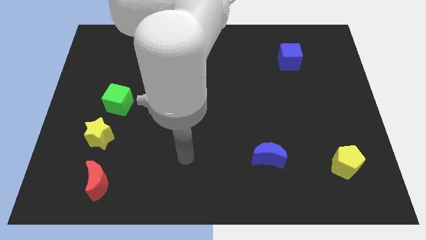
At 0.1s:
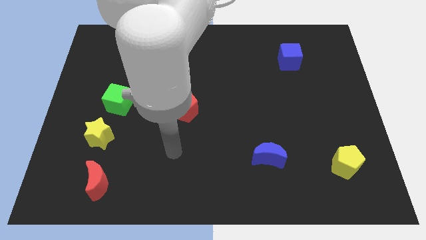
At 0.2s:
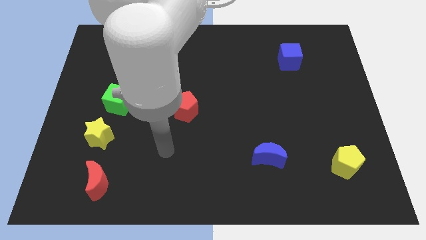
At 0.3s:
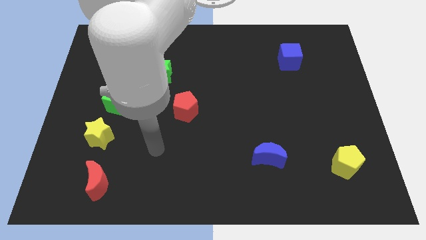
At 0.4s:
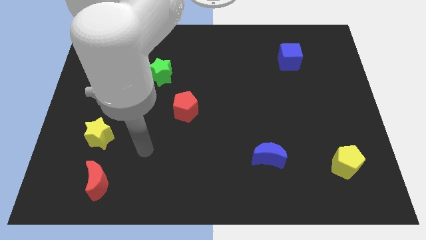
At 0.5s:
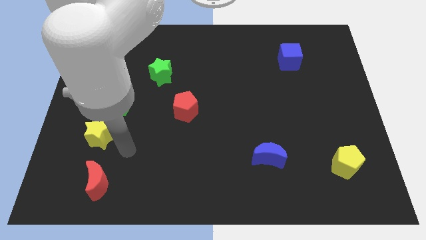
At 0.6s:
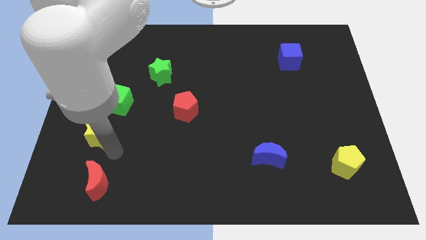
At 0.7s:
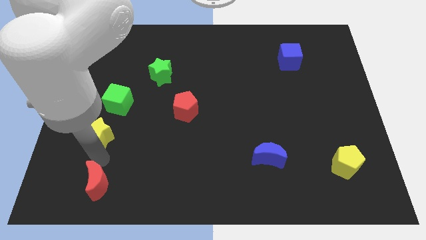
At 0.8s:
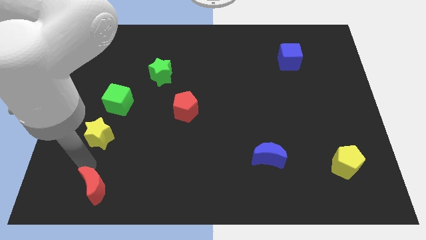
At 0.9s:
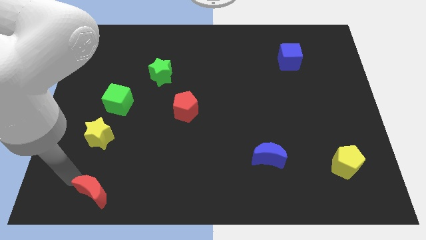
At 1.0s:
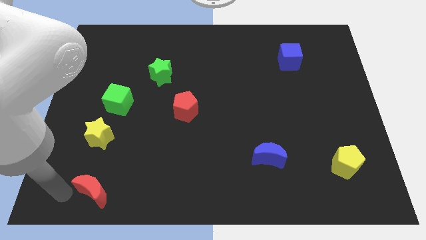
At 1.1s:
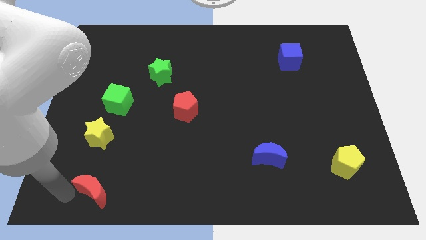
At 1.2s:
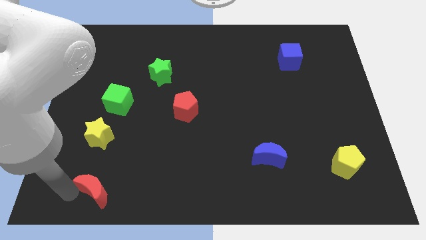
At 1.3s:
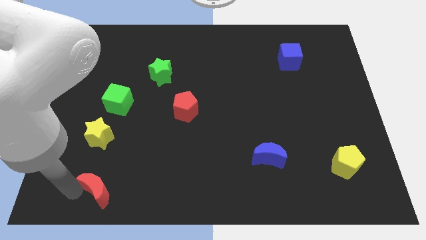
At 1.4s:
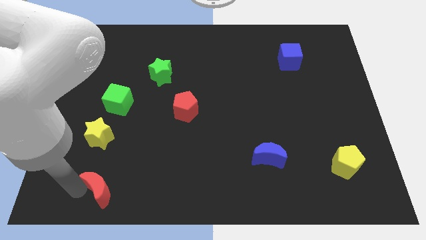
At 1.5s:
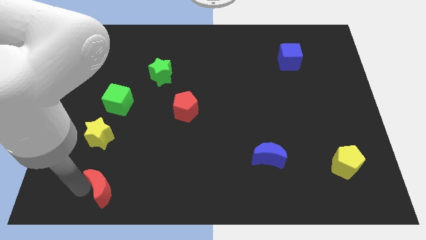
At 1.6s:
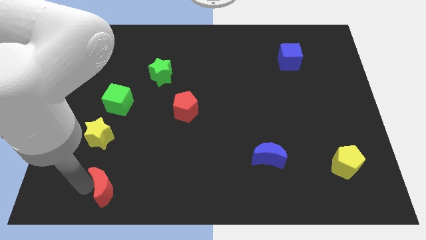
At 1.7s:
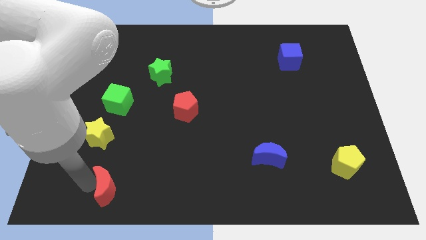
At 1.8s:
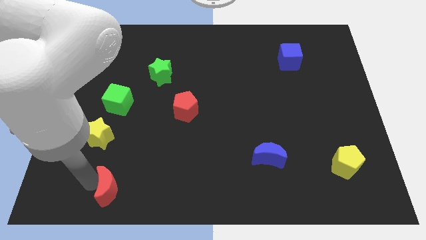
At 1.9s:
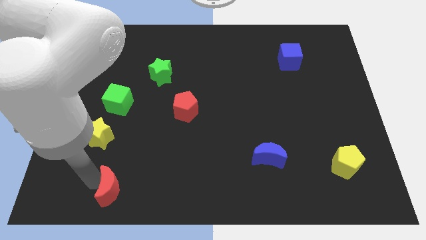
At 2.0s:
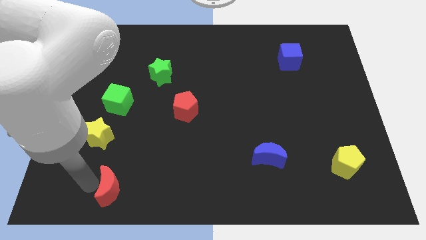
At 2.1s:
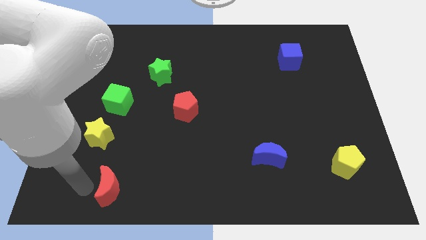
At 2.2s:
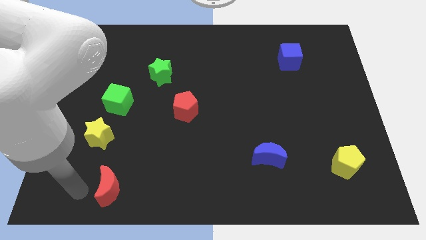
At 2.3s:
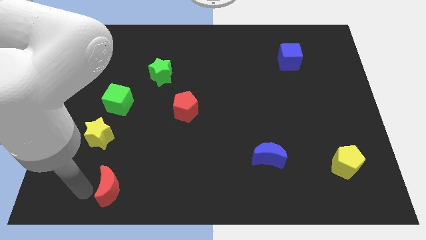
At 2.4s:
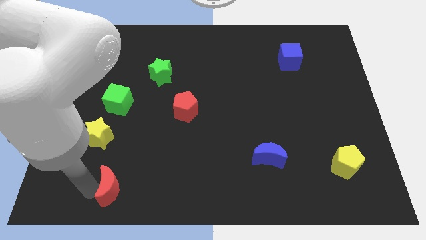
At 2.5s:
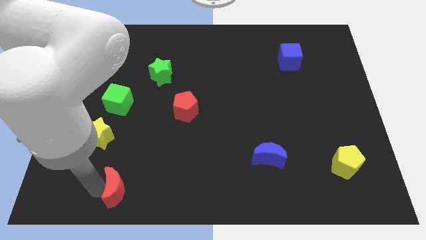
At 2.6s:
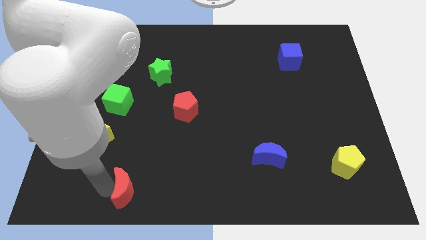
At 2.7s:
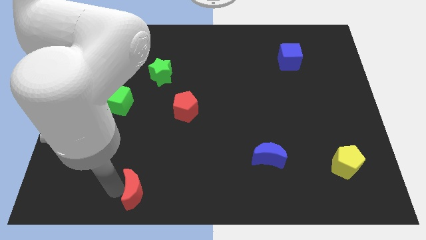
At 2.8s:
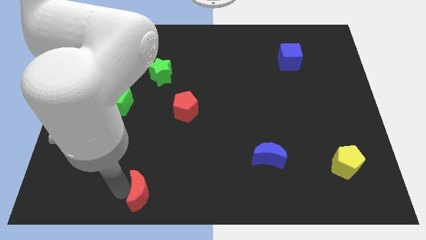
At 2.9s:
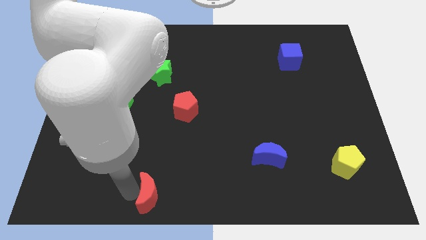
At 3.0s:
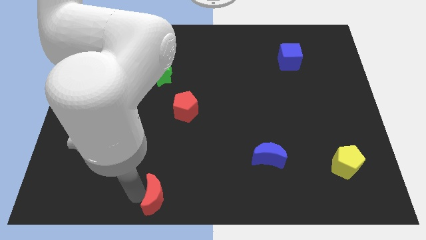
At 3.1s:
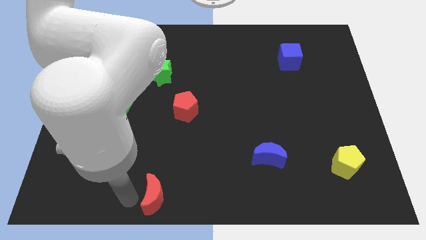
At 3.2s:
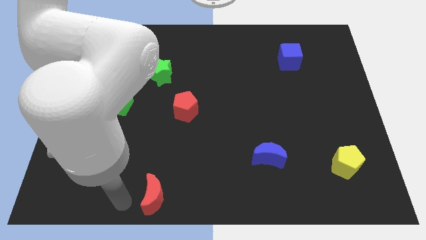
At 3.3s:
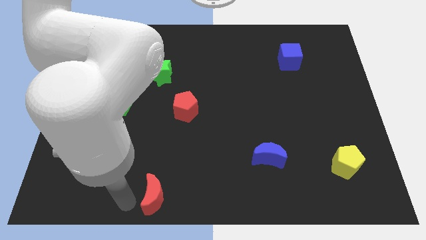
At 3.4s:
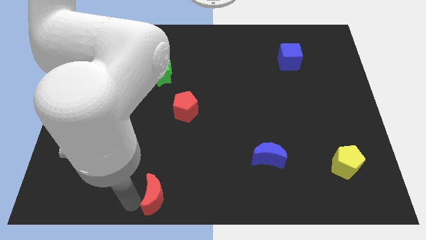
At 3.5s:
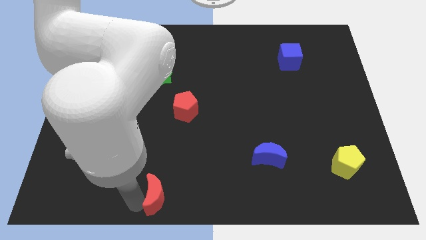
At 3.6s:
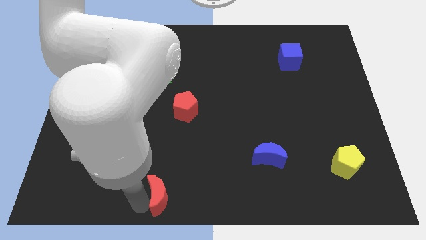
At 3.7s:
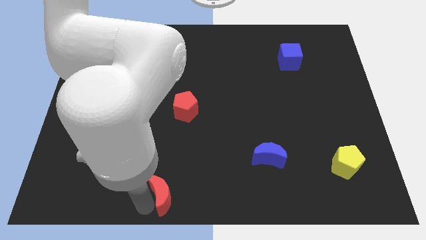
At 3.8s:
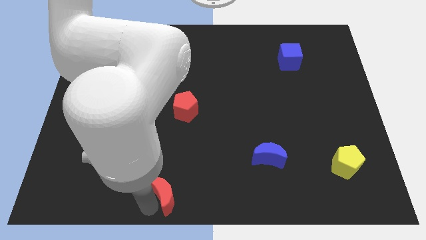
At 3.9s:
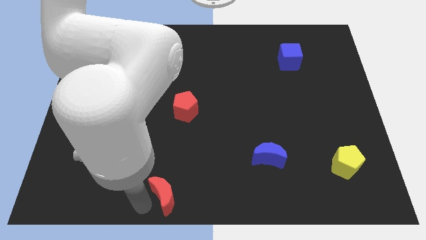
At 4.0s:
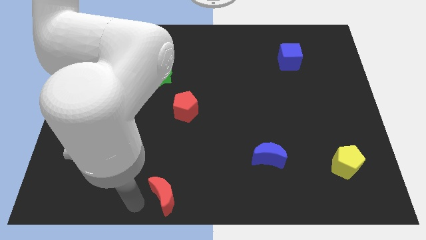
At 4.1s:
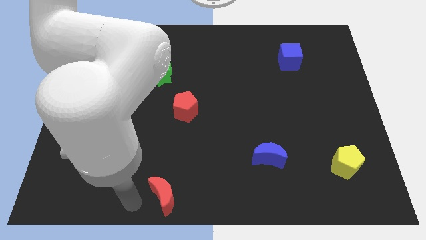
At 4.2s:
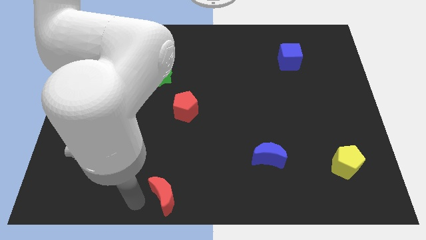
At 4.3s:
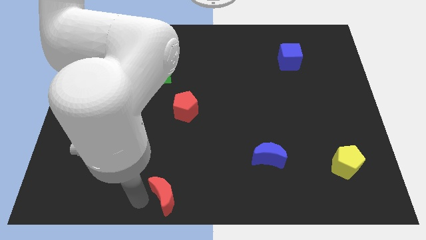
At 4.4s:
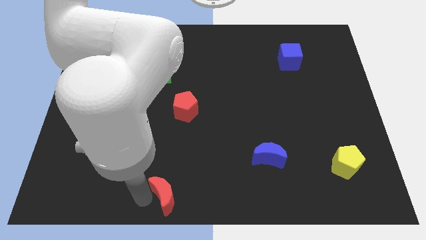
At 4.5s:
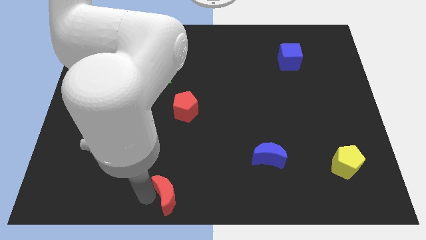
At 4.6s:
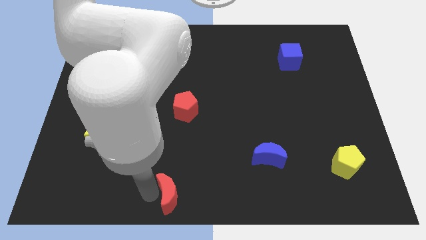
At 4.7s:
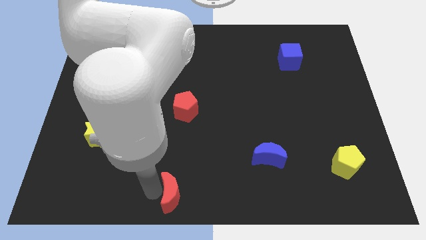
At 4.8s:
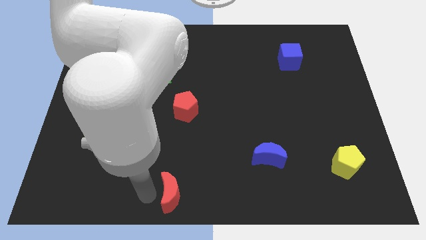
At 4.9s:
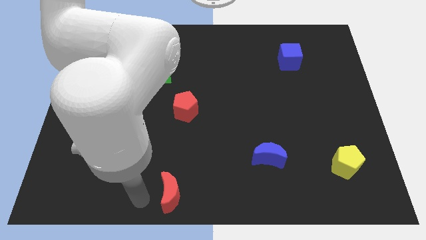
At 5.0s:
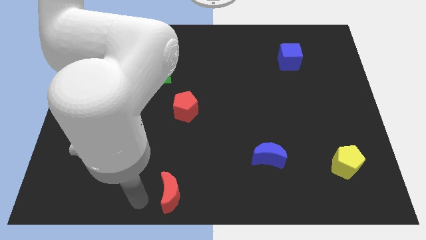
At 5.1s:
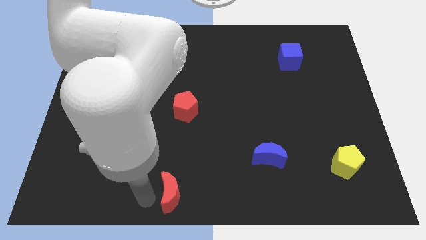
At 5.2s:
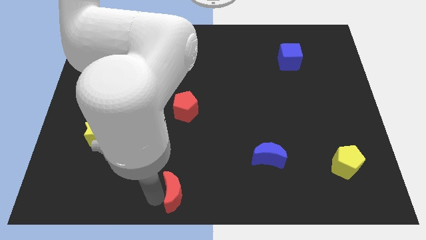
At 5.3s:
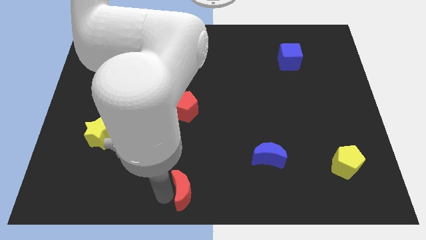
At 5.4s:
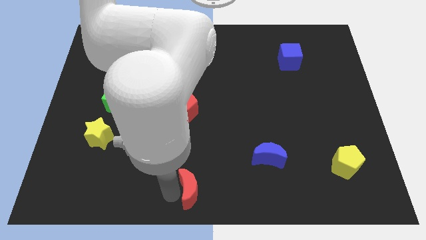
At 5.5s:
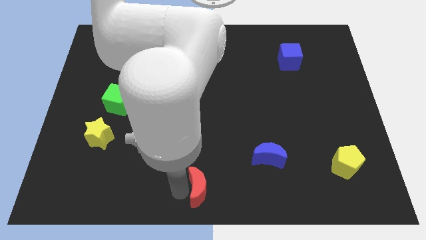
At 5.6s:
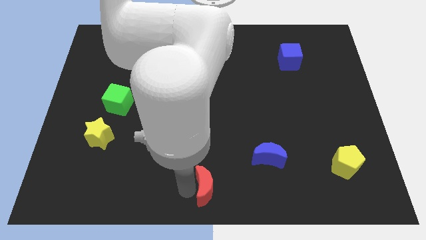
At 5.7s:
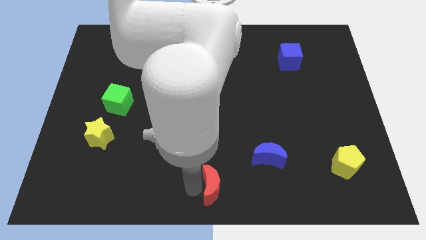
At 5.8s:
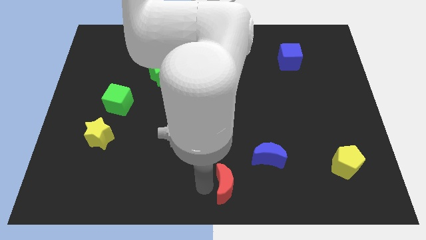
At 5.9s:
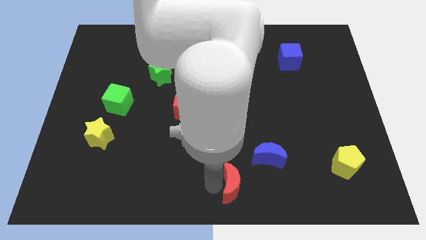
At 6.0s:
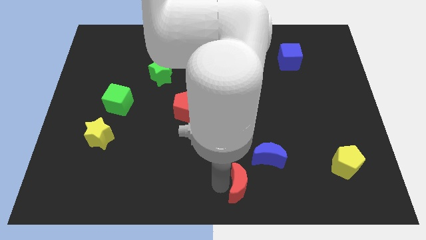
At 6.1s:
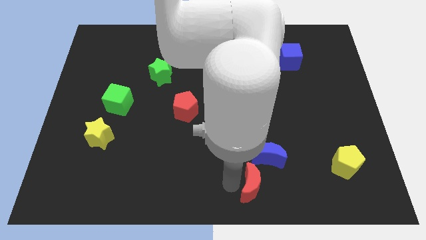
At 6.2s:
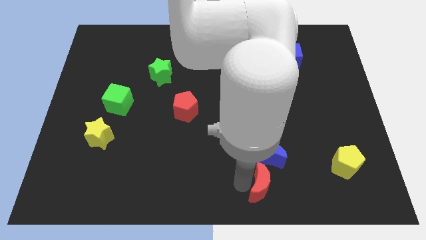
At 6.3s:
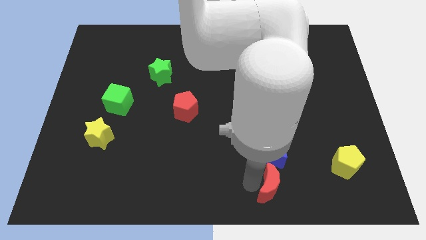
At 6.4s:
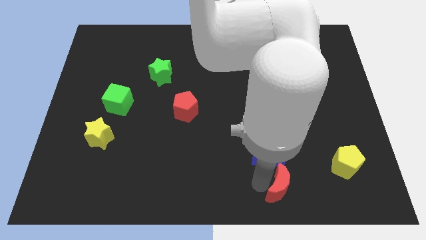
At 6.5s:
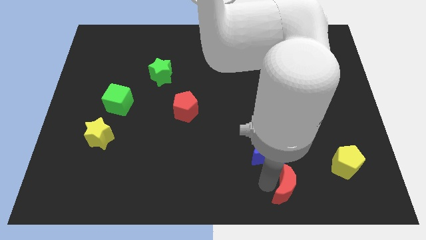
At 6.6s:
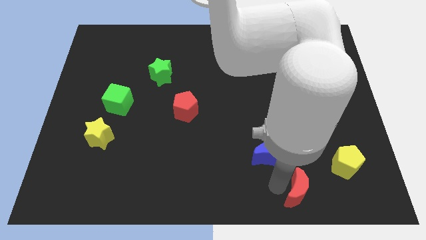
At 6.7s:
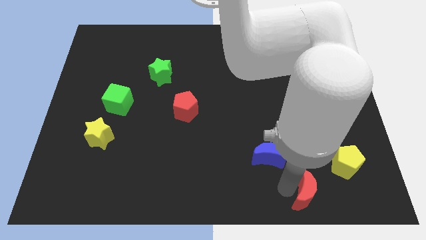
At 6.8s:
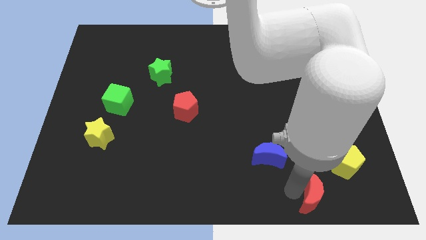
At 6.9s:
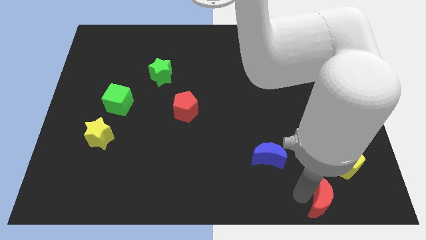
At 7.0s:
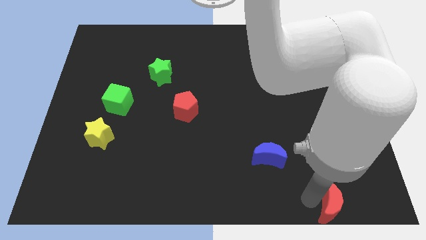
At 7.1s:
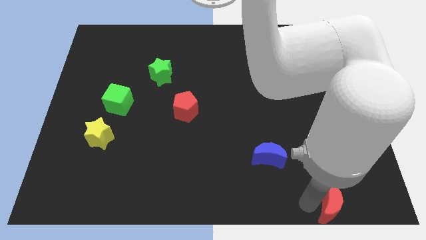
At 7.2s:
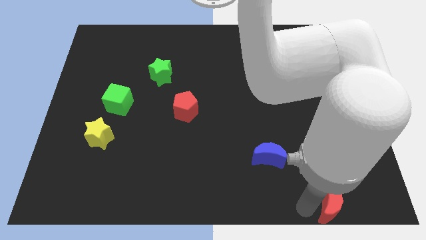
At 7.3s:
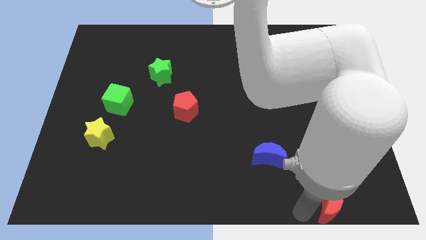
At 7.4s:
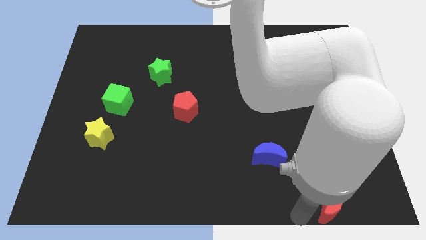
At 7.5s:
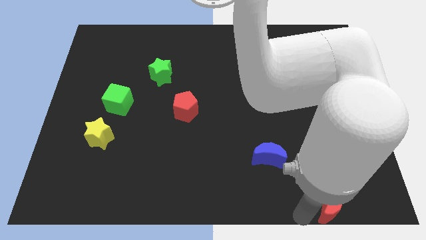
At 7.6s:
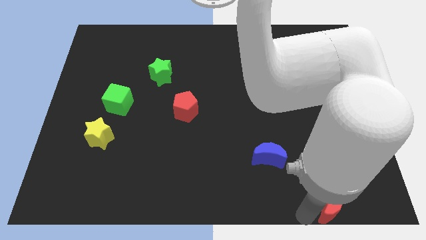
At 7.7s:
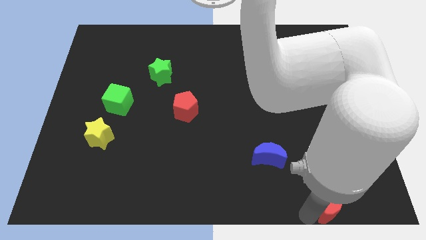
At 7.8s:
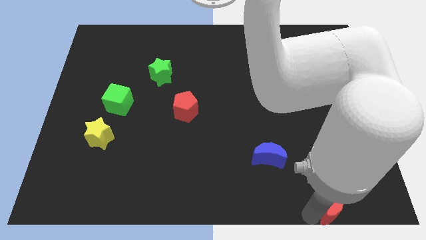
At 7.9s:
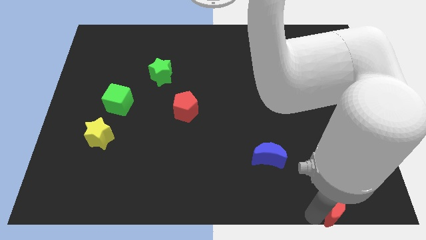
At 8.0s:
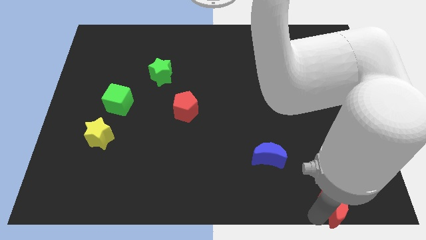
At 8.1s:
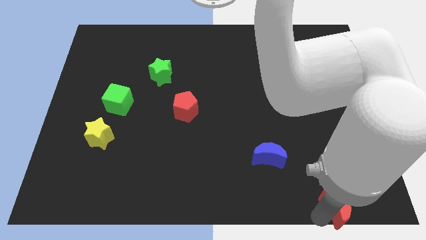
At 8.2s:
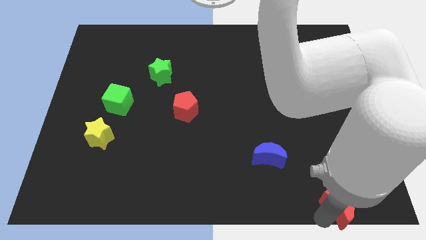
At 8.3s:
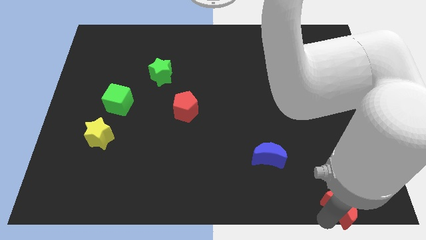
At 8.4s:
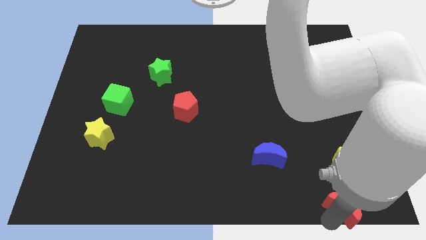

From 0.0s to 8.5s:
move the red moon to the bottom right
